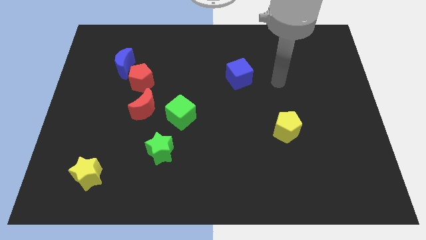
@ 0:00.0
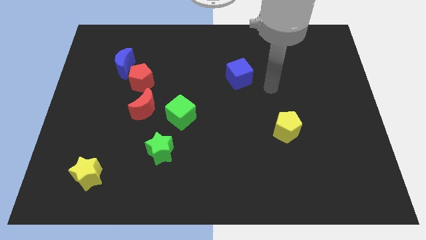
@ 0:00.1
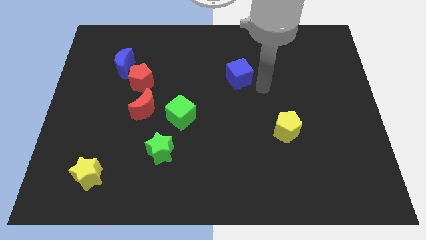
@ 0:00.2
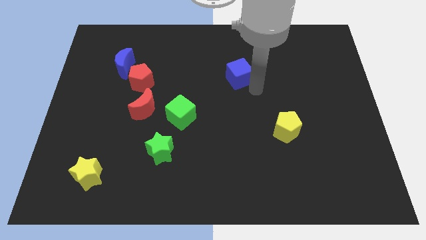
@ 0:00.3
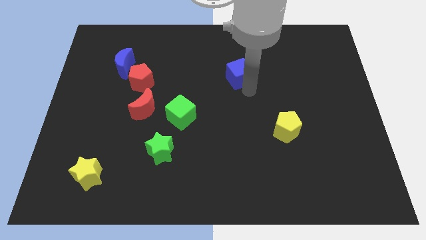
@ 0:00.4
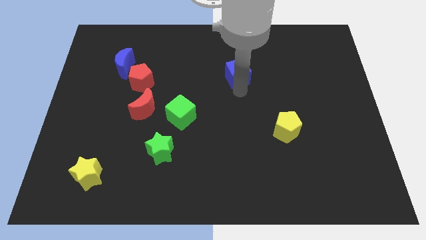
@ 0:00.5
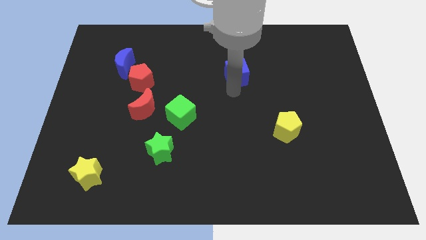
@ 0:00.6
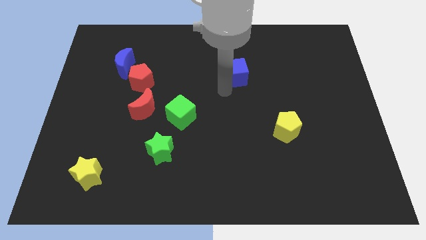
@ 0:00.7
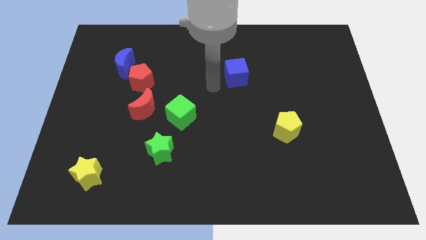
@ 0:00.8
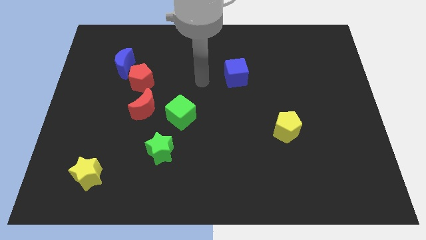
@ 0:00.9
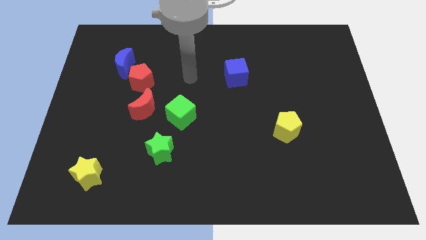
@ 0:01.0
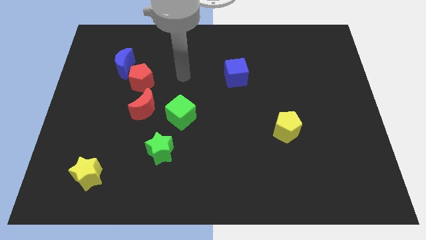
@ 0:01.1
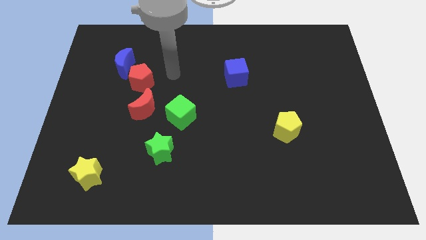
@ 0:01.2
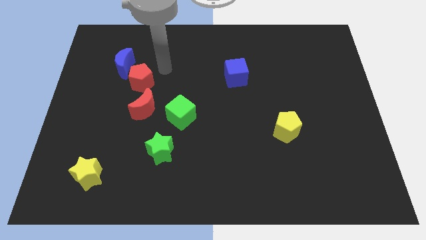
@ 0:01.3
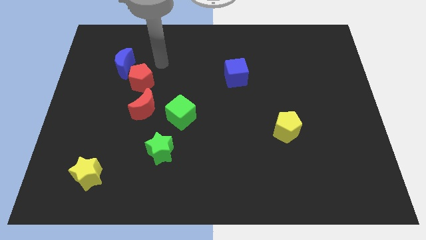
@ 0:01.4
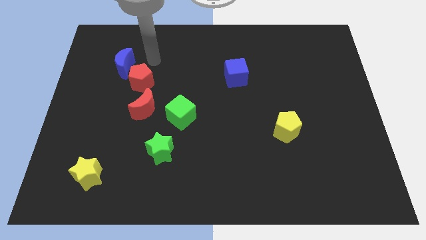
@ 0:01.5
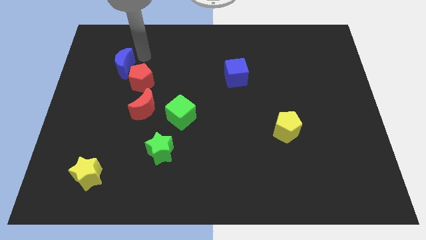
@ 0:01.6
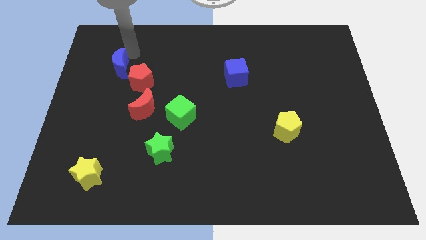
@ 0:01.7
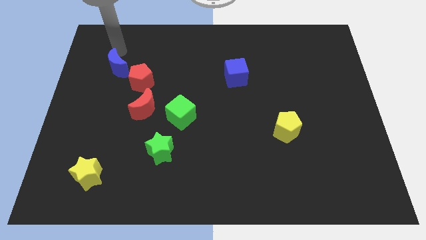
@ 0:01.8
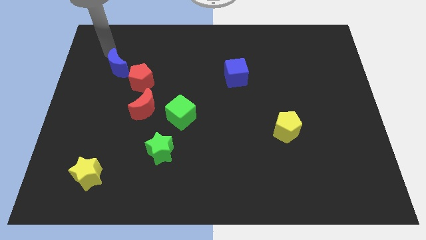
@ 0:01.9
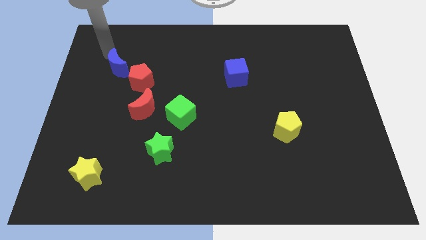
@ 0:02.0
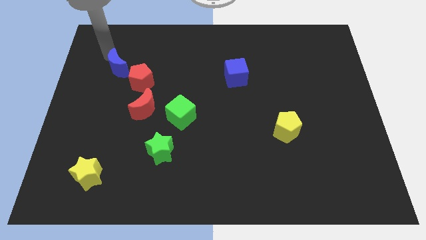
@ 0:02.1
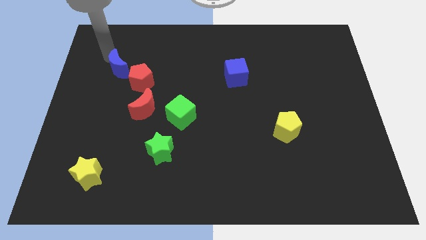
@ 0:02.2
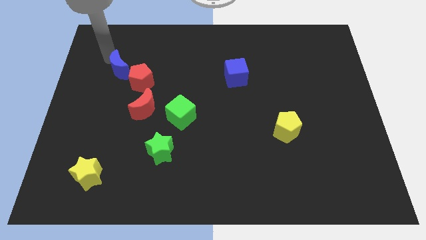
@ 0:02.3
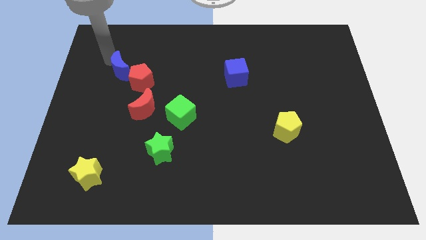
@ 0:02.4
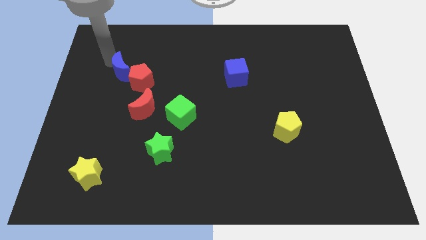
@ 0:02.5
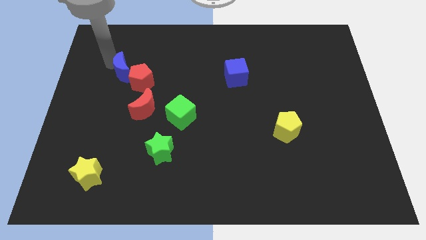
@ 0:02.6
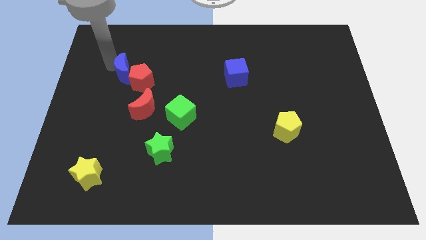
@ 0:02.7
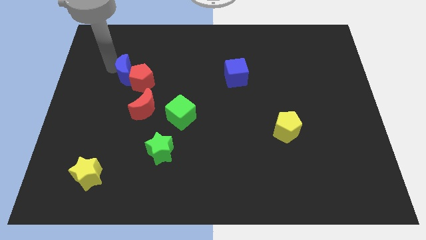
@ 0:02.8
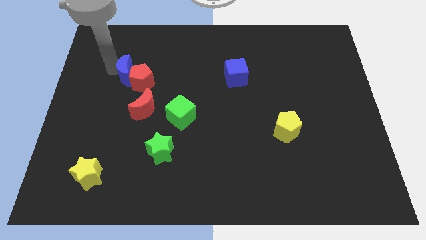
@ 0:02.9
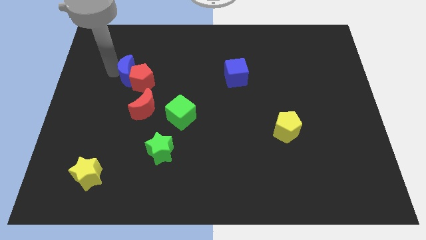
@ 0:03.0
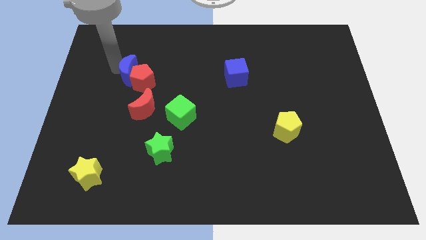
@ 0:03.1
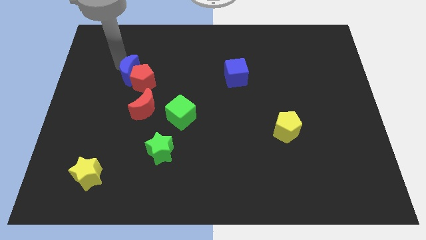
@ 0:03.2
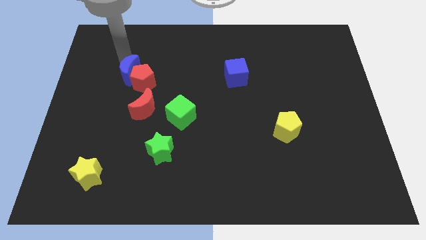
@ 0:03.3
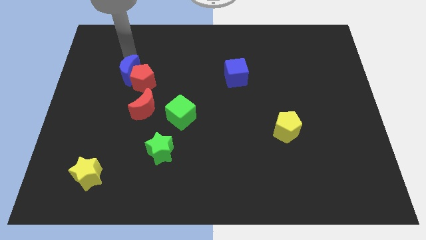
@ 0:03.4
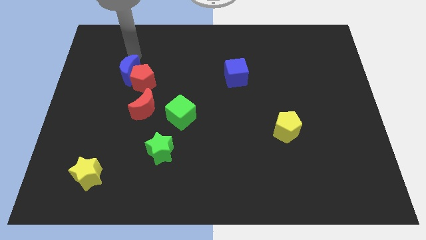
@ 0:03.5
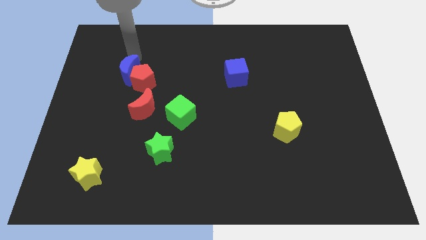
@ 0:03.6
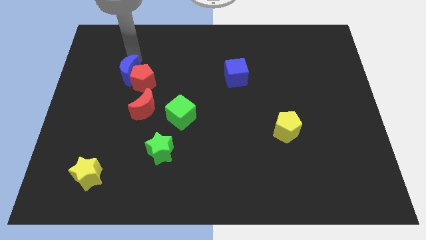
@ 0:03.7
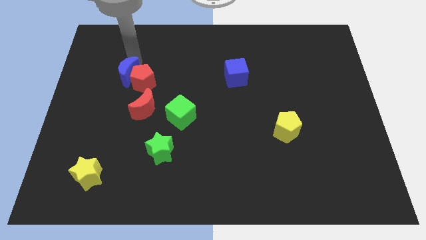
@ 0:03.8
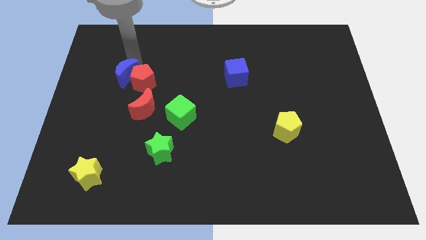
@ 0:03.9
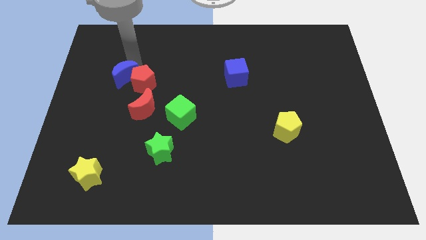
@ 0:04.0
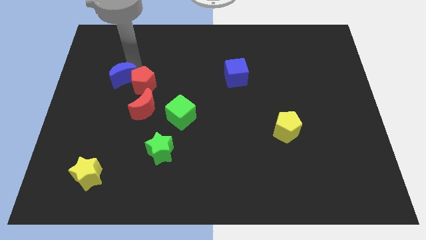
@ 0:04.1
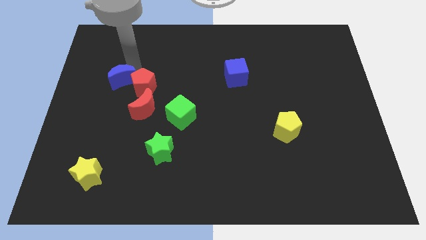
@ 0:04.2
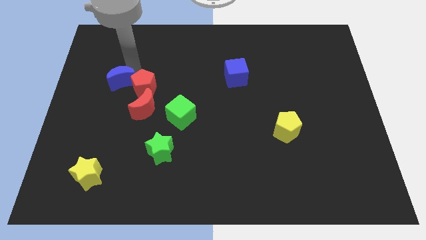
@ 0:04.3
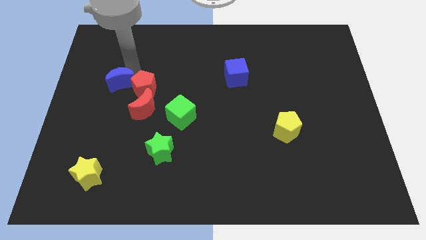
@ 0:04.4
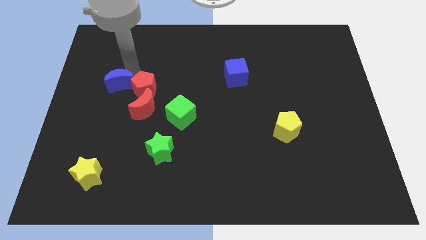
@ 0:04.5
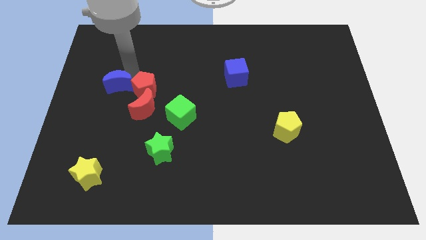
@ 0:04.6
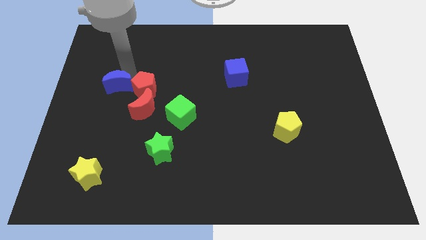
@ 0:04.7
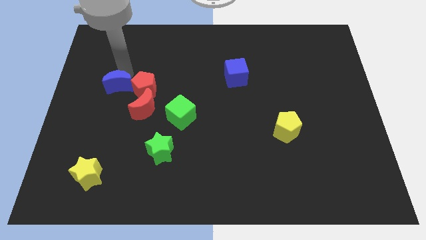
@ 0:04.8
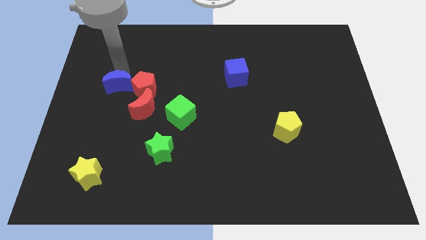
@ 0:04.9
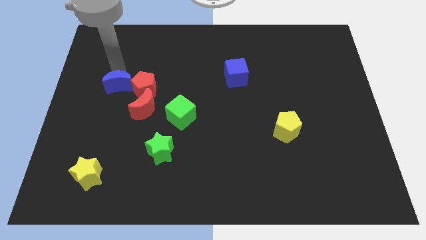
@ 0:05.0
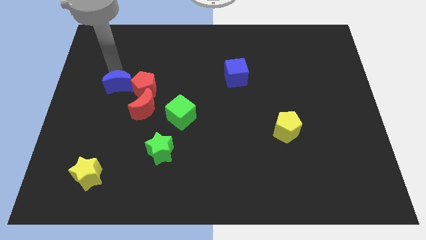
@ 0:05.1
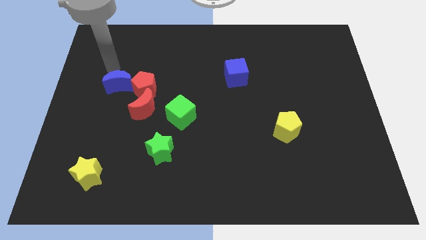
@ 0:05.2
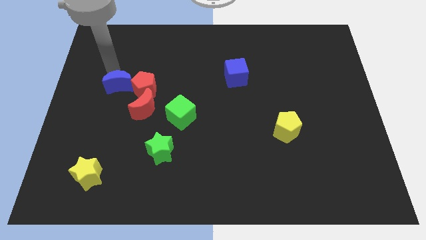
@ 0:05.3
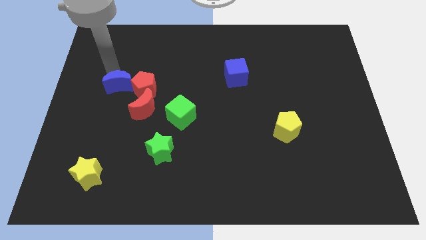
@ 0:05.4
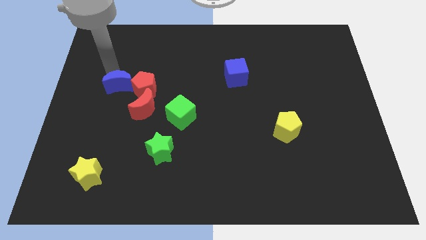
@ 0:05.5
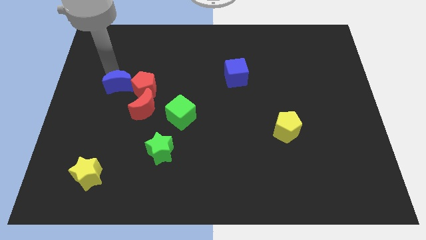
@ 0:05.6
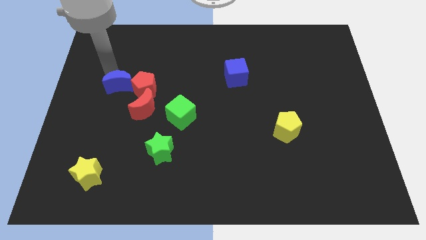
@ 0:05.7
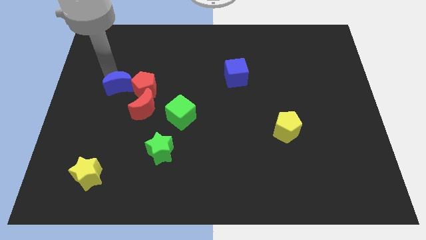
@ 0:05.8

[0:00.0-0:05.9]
slide the blue moon somewhat down

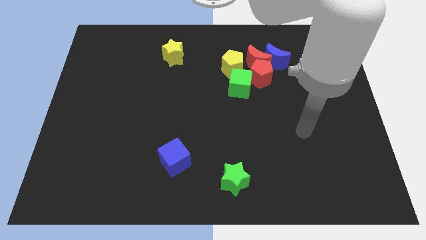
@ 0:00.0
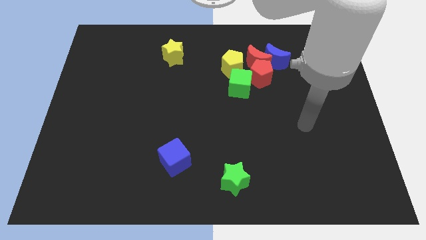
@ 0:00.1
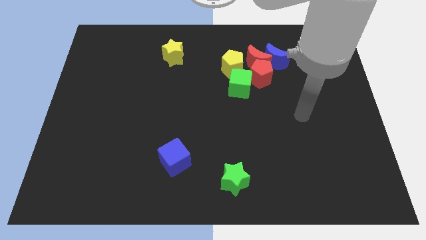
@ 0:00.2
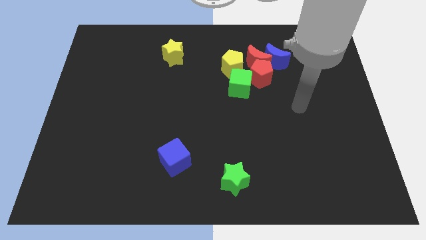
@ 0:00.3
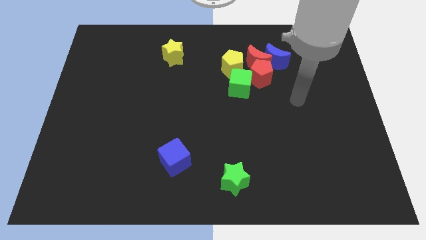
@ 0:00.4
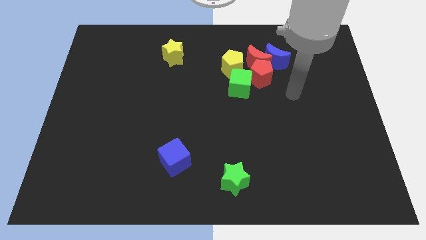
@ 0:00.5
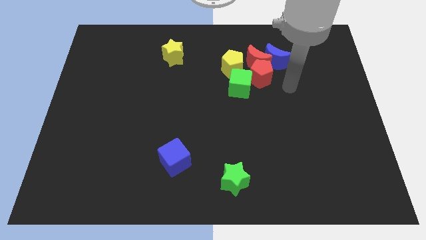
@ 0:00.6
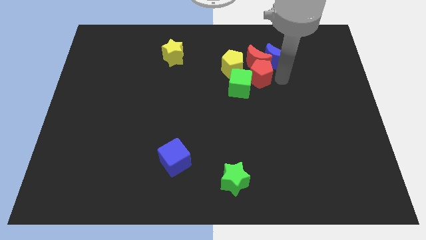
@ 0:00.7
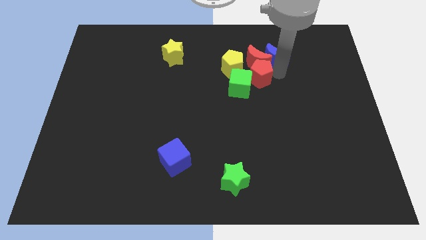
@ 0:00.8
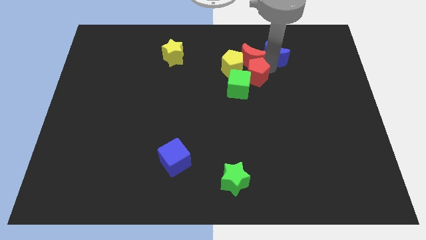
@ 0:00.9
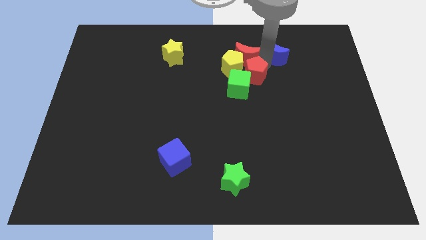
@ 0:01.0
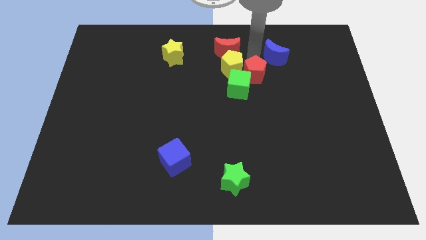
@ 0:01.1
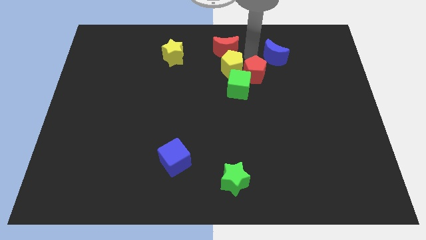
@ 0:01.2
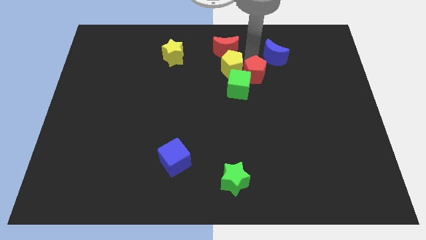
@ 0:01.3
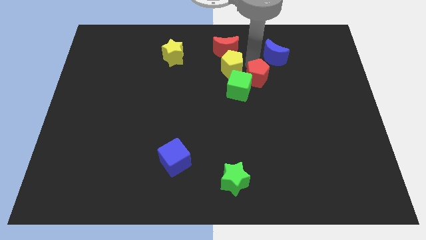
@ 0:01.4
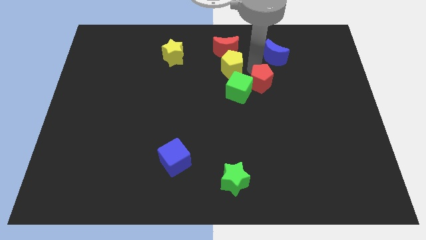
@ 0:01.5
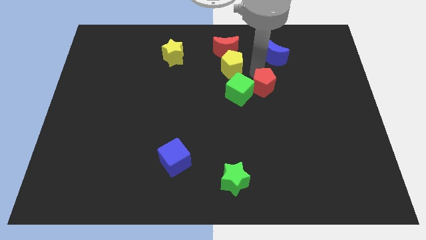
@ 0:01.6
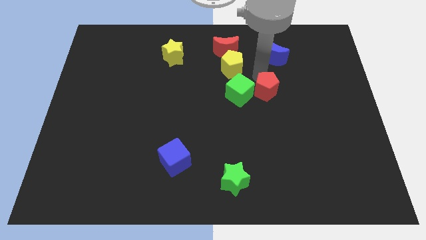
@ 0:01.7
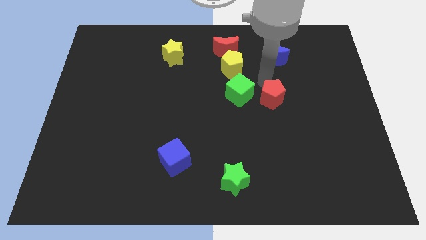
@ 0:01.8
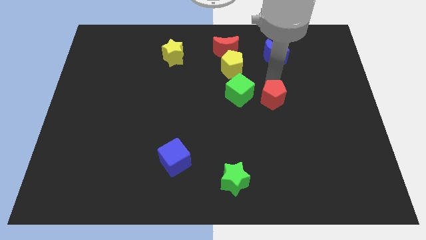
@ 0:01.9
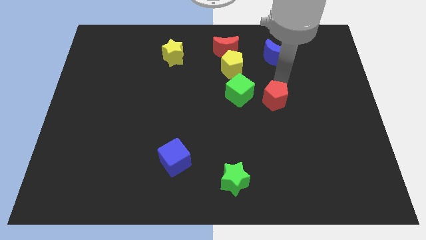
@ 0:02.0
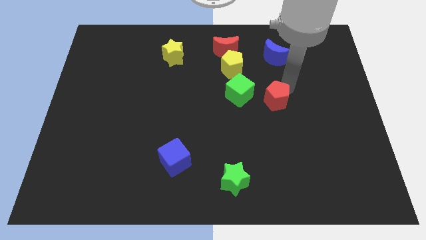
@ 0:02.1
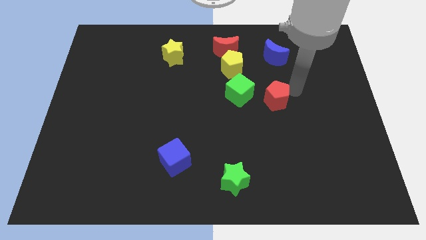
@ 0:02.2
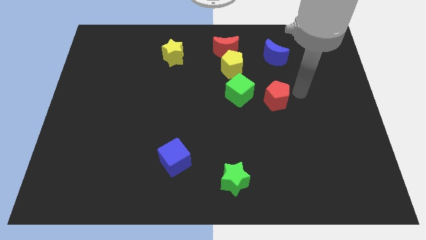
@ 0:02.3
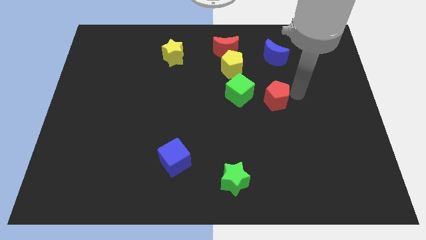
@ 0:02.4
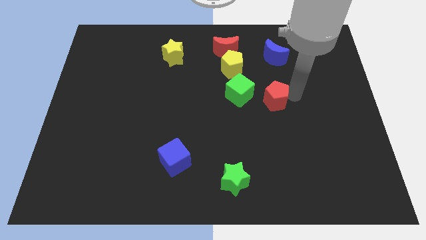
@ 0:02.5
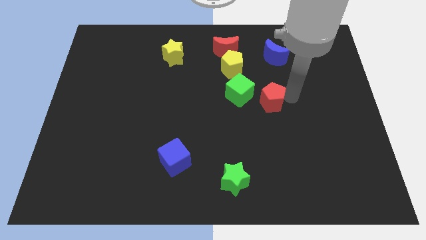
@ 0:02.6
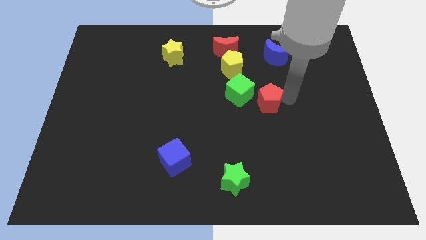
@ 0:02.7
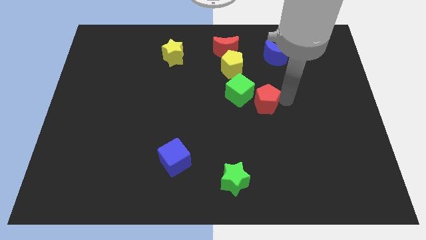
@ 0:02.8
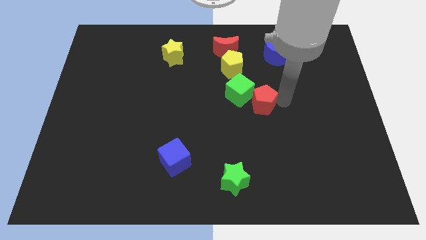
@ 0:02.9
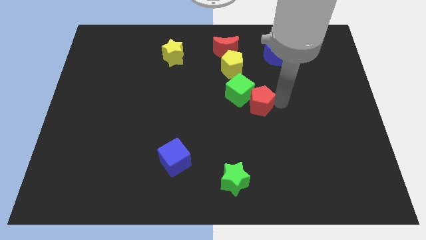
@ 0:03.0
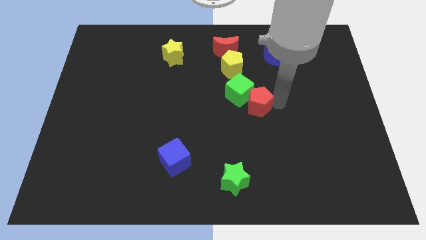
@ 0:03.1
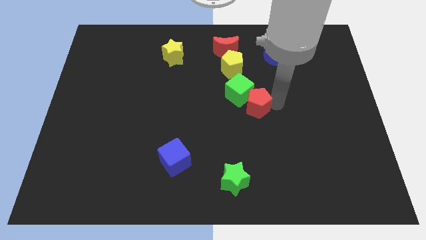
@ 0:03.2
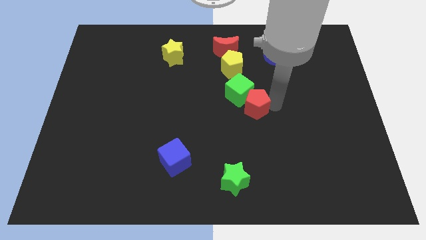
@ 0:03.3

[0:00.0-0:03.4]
slide the red pentagon diagonally down and to the left a bit
